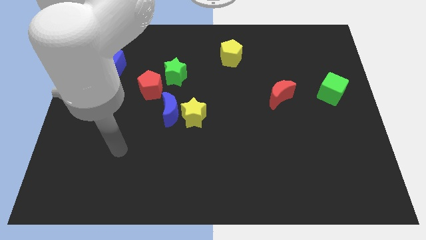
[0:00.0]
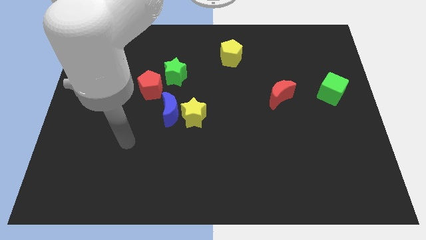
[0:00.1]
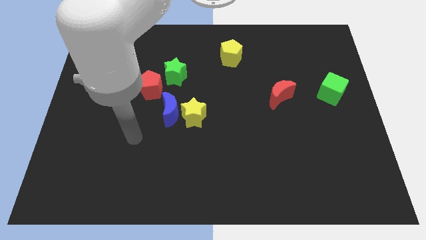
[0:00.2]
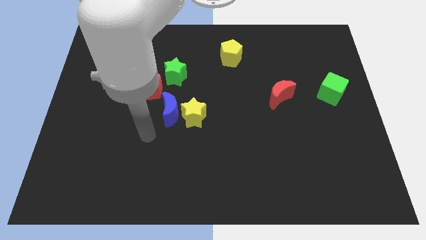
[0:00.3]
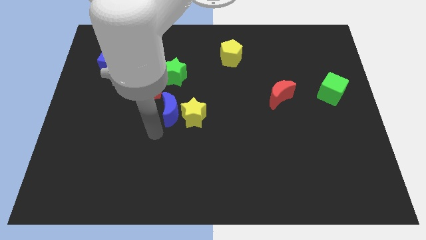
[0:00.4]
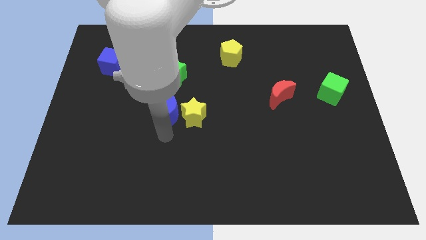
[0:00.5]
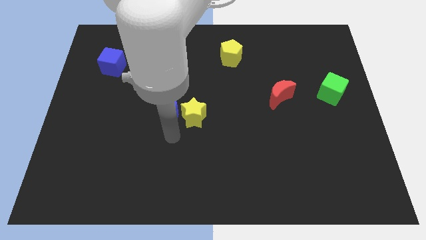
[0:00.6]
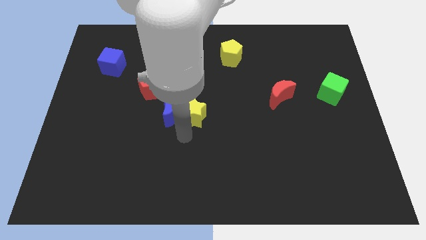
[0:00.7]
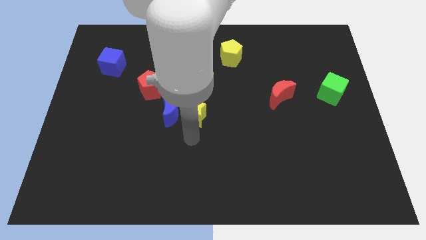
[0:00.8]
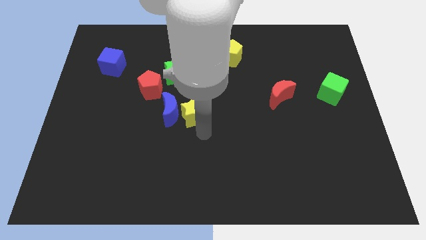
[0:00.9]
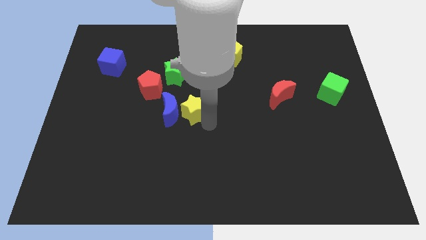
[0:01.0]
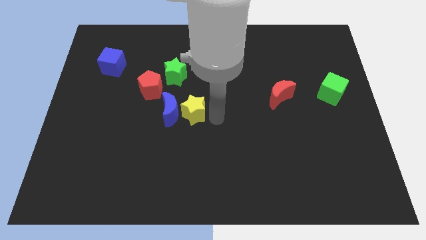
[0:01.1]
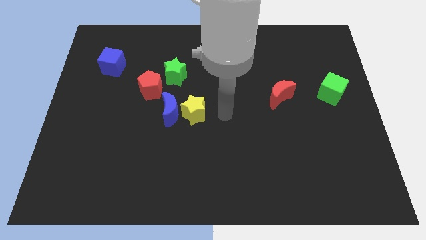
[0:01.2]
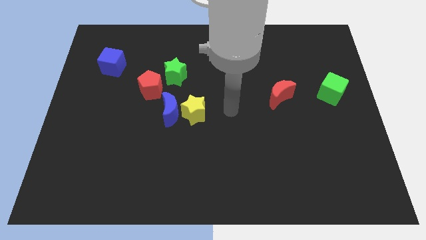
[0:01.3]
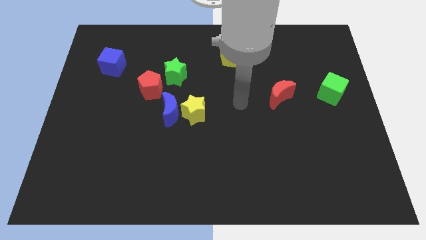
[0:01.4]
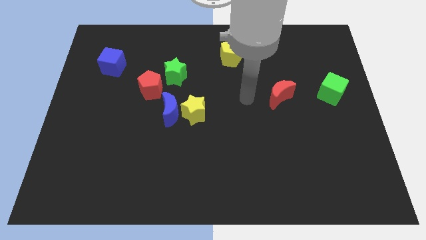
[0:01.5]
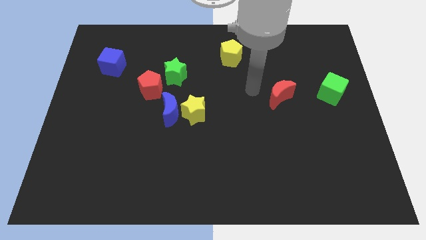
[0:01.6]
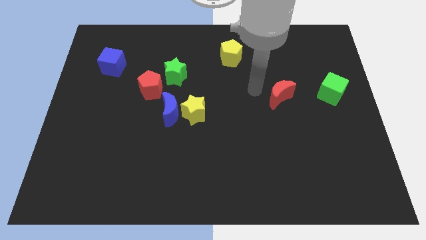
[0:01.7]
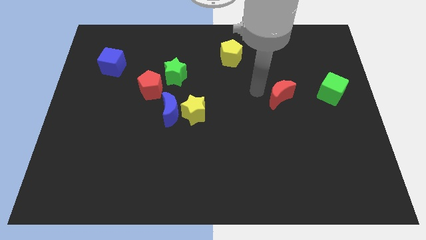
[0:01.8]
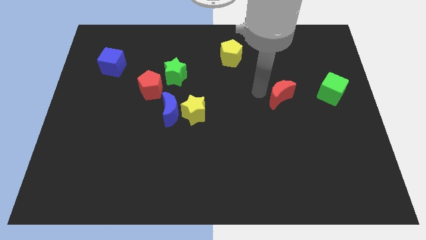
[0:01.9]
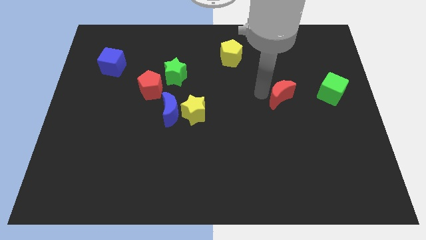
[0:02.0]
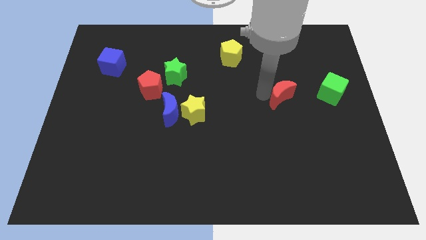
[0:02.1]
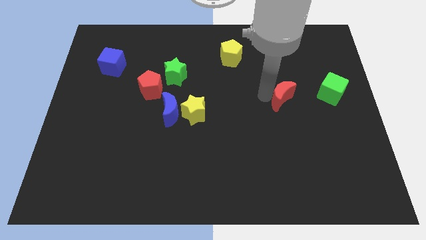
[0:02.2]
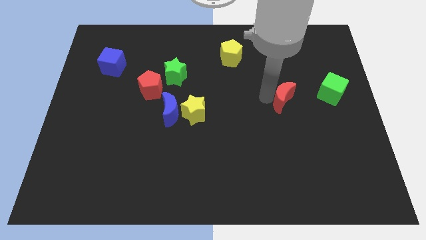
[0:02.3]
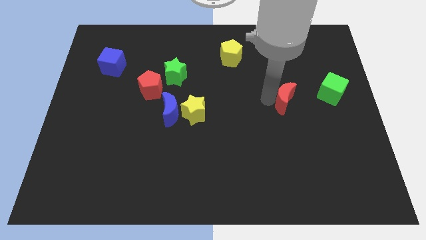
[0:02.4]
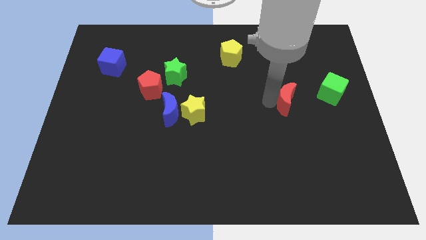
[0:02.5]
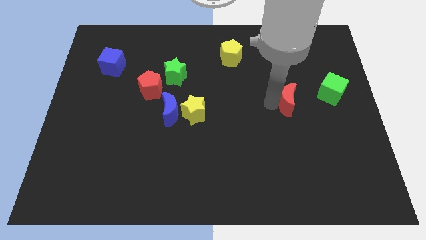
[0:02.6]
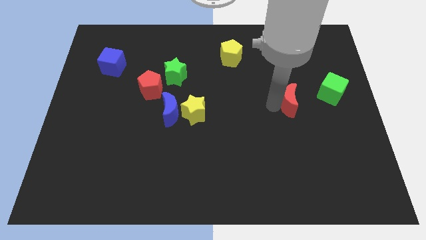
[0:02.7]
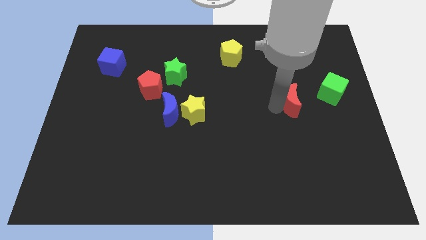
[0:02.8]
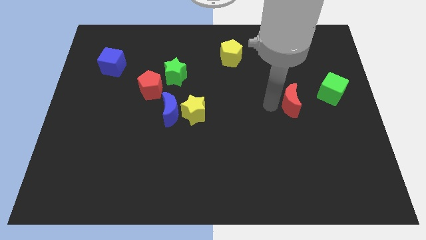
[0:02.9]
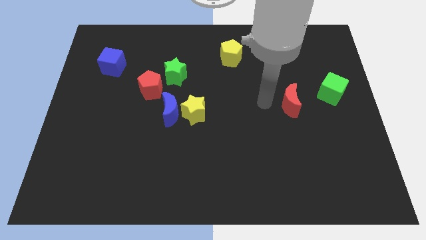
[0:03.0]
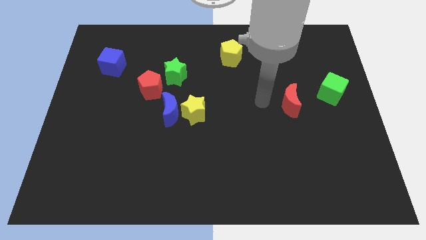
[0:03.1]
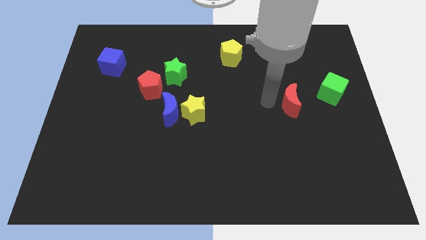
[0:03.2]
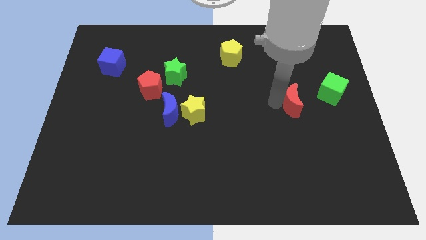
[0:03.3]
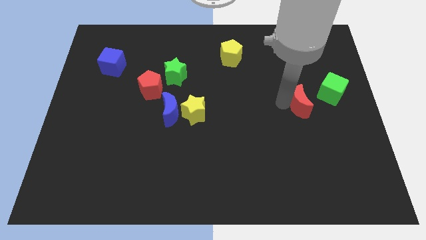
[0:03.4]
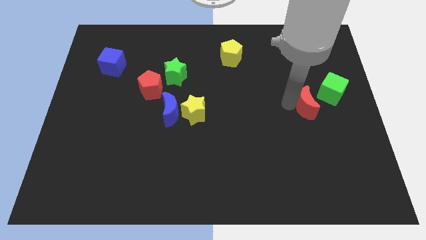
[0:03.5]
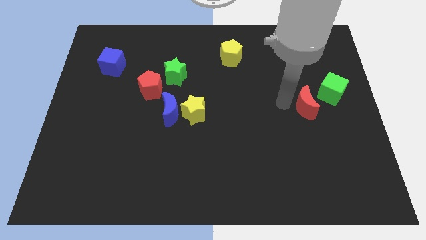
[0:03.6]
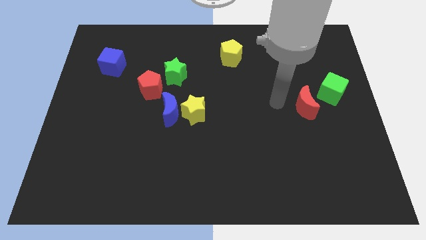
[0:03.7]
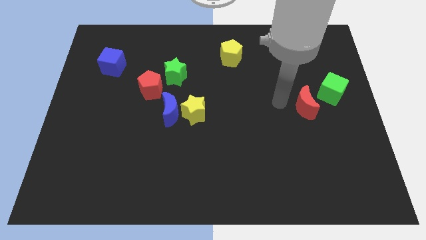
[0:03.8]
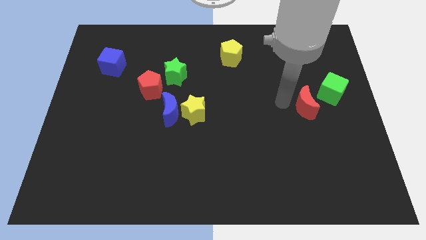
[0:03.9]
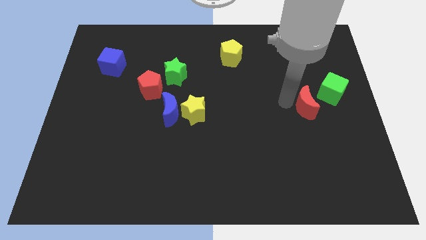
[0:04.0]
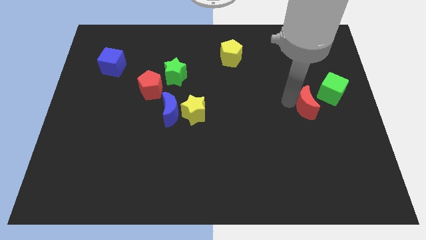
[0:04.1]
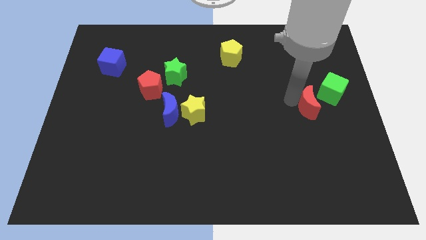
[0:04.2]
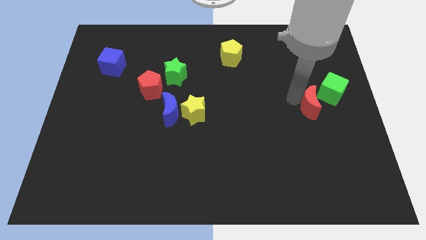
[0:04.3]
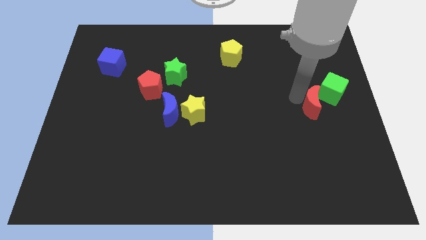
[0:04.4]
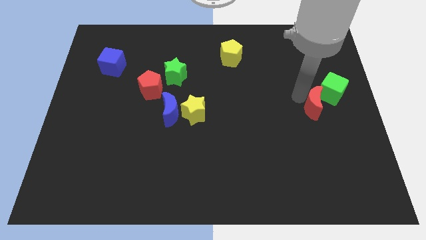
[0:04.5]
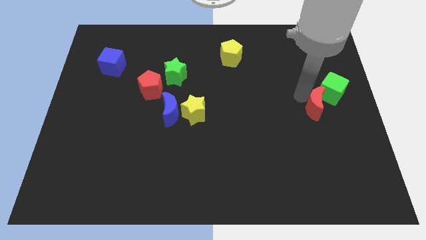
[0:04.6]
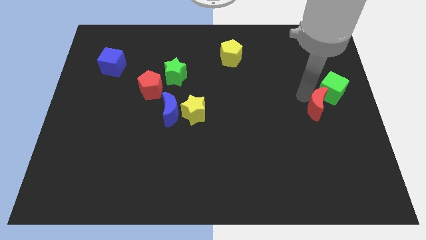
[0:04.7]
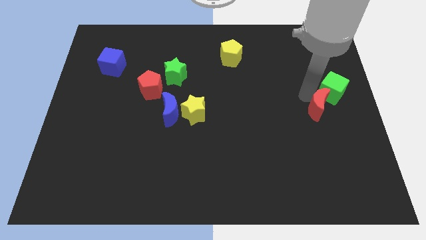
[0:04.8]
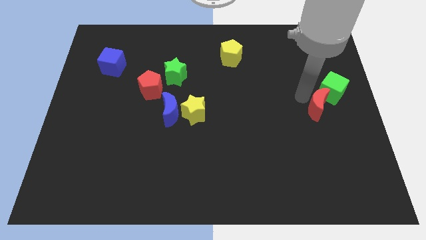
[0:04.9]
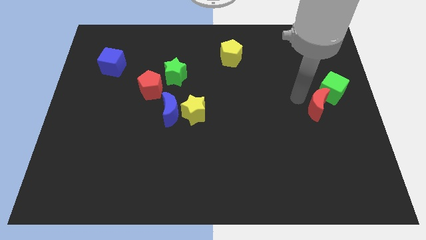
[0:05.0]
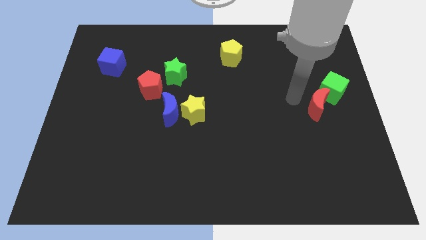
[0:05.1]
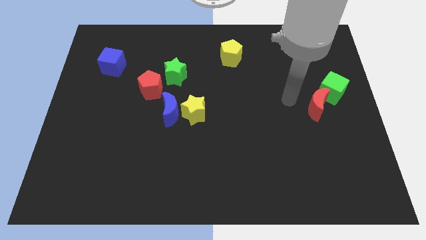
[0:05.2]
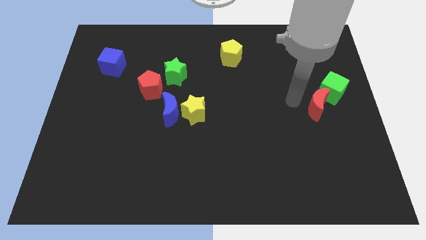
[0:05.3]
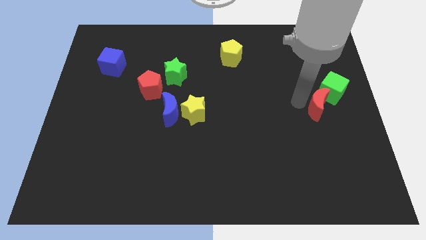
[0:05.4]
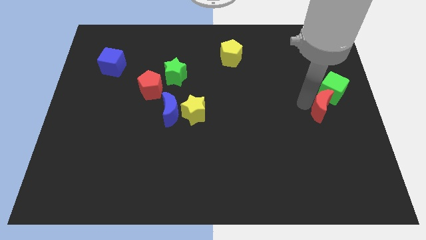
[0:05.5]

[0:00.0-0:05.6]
slide the red moon to the center right

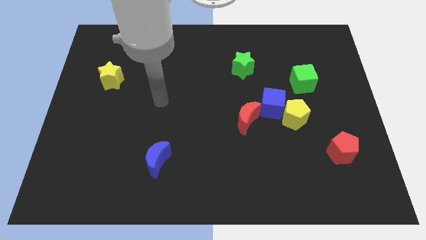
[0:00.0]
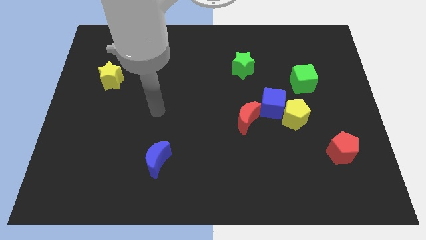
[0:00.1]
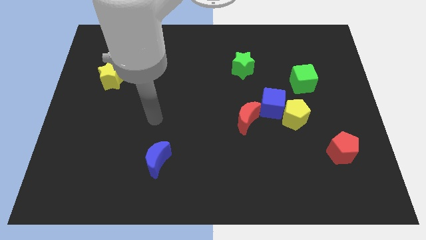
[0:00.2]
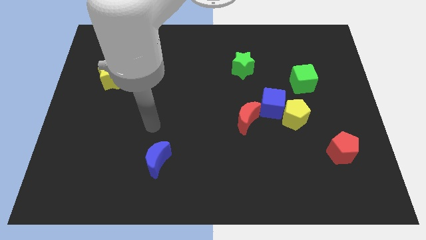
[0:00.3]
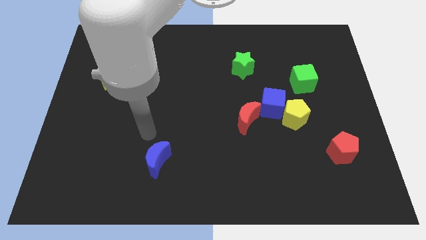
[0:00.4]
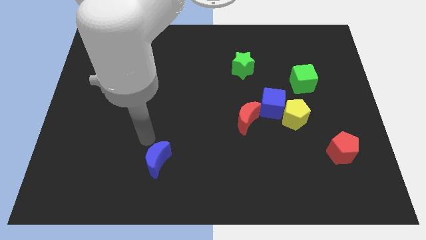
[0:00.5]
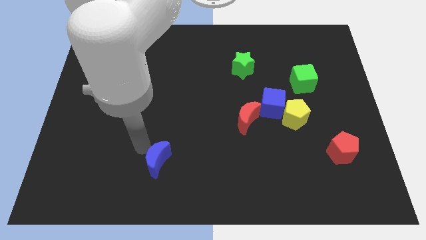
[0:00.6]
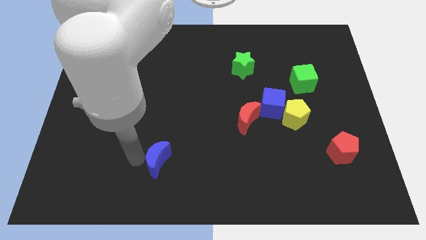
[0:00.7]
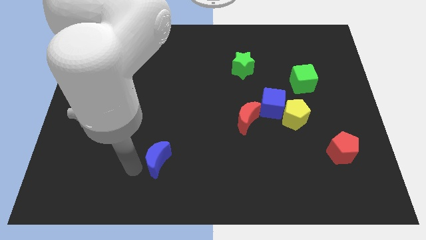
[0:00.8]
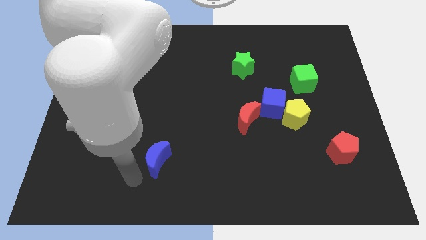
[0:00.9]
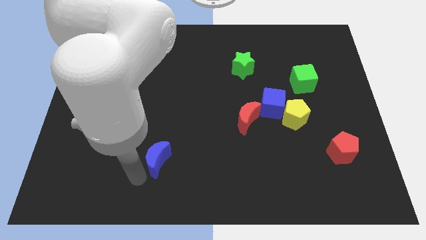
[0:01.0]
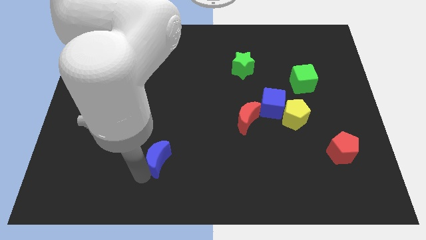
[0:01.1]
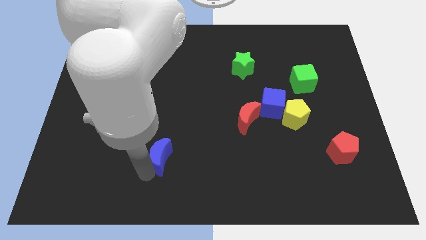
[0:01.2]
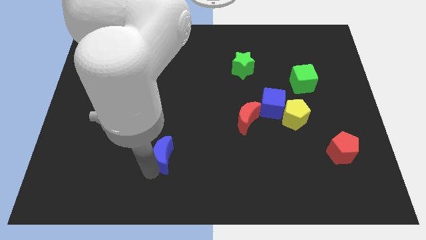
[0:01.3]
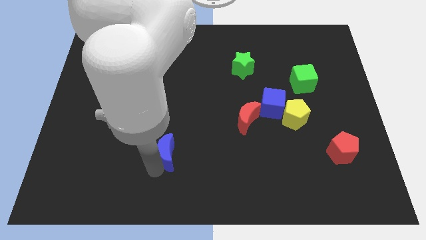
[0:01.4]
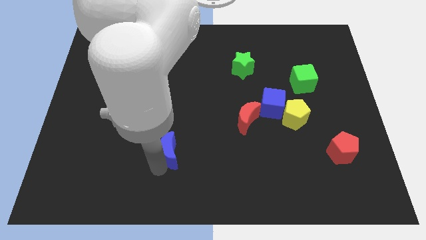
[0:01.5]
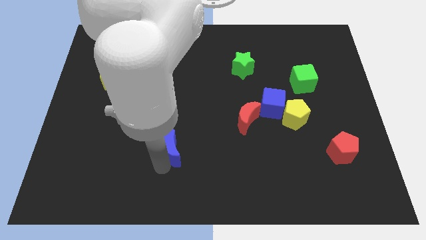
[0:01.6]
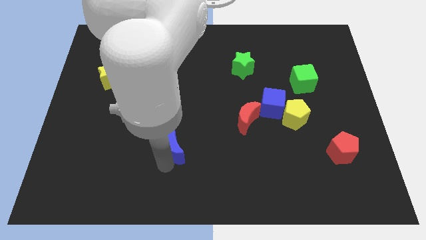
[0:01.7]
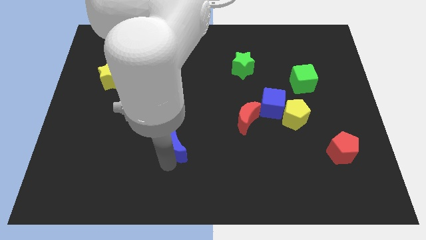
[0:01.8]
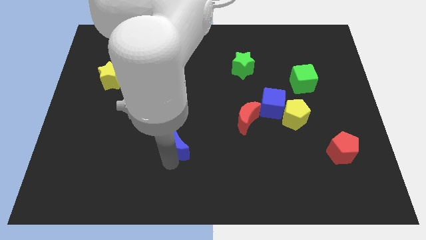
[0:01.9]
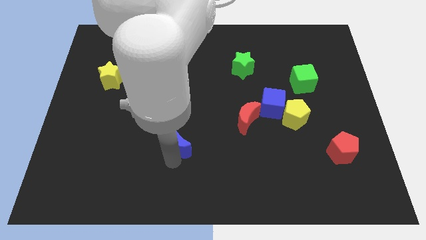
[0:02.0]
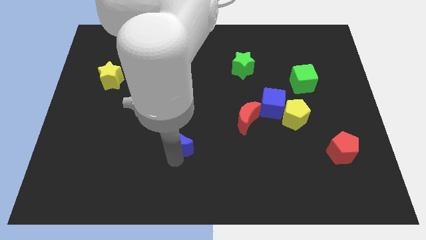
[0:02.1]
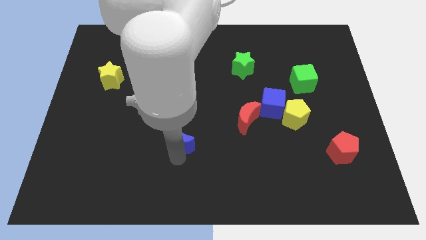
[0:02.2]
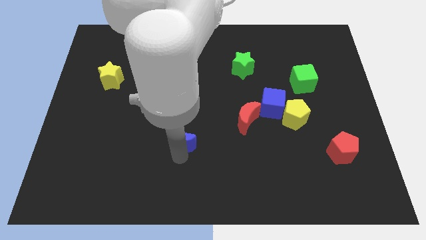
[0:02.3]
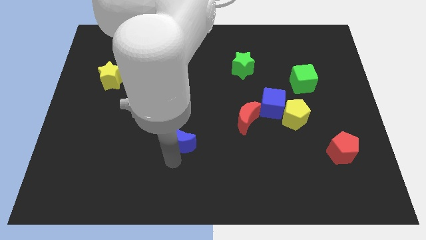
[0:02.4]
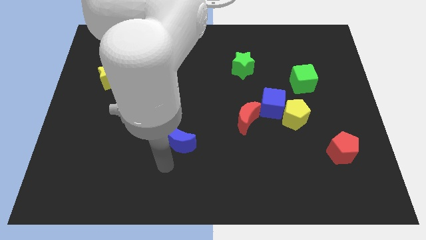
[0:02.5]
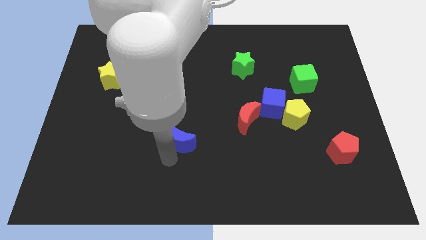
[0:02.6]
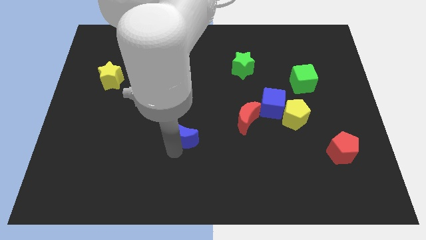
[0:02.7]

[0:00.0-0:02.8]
slide the blue moon to the center
